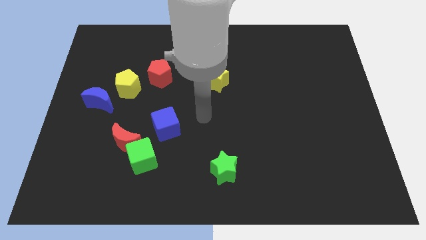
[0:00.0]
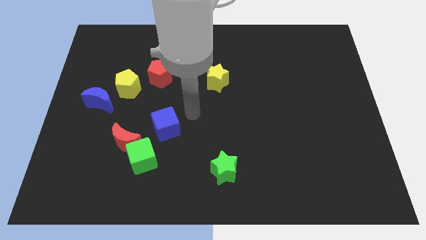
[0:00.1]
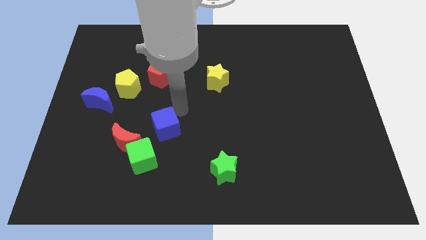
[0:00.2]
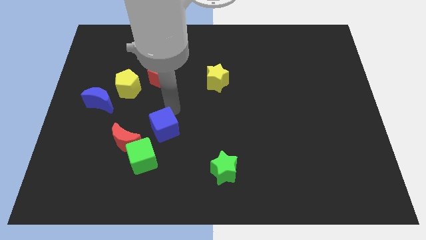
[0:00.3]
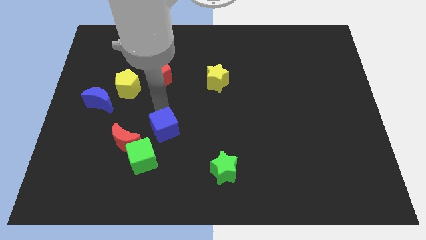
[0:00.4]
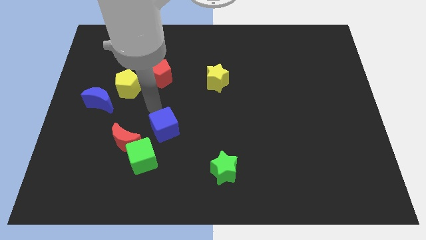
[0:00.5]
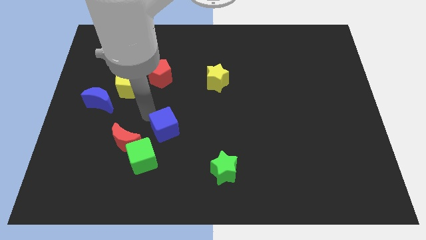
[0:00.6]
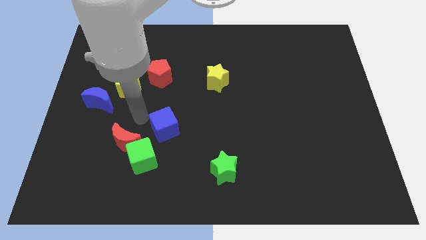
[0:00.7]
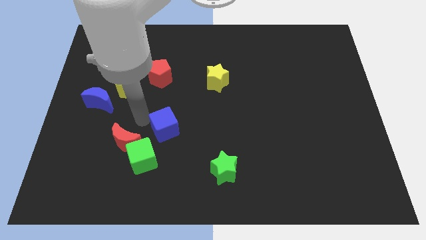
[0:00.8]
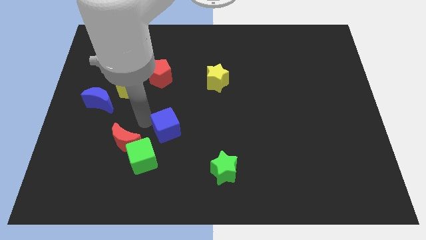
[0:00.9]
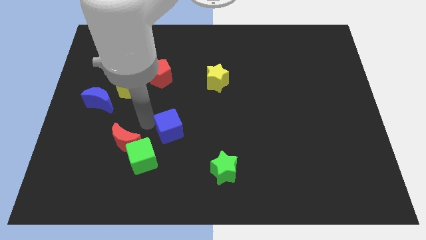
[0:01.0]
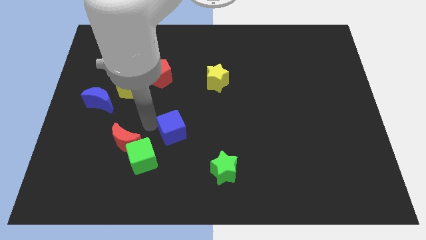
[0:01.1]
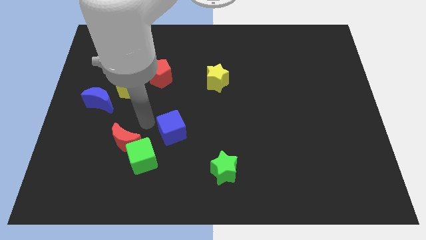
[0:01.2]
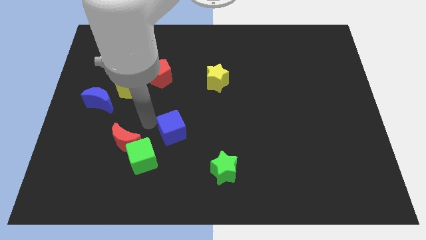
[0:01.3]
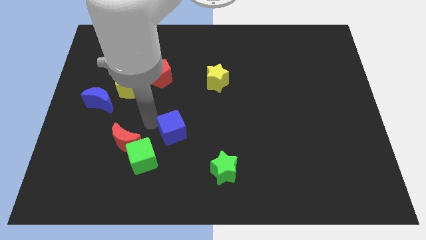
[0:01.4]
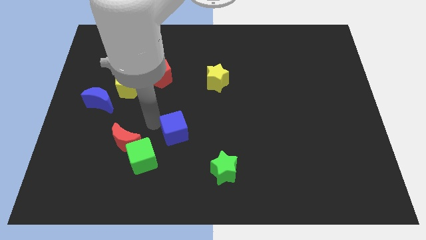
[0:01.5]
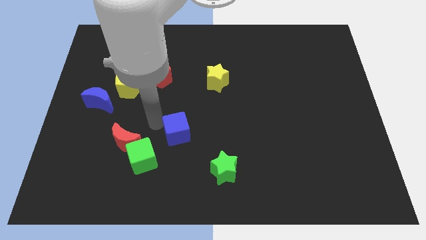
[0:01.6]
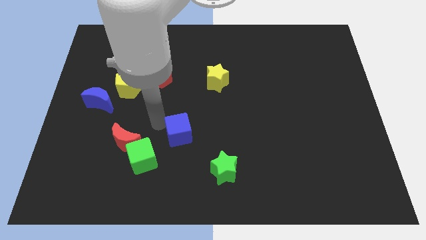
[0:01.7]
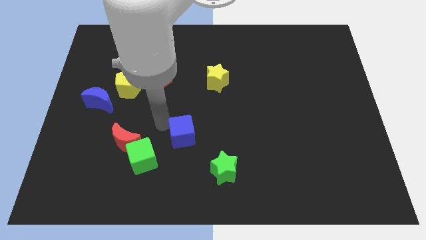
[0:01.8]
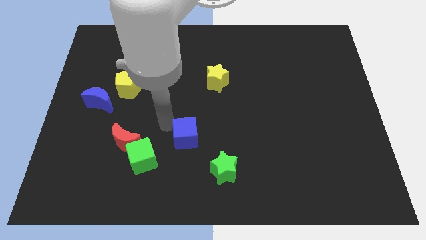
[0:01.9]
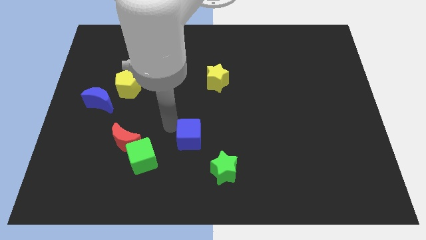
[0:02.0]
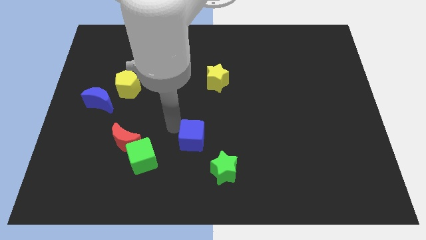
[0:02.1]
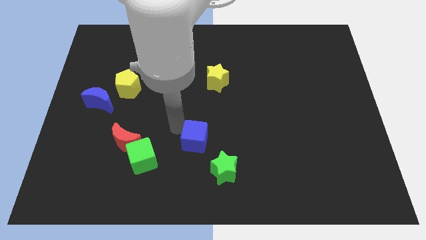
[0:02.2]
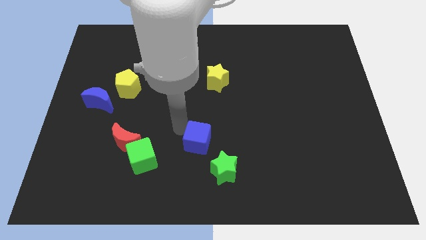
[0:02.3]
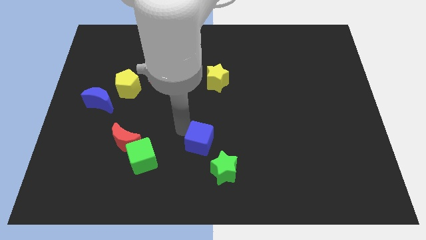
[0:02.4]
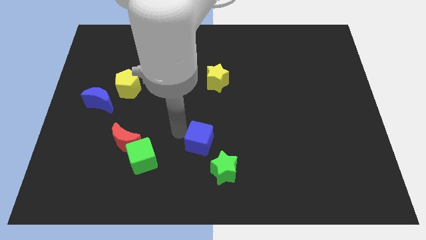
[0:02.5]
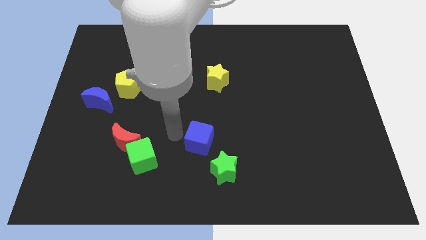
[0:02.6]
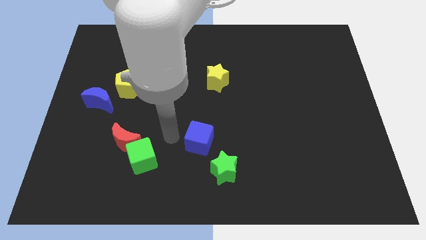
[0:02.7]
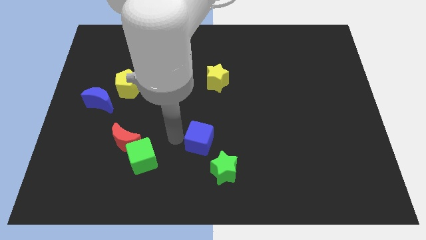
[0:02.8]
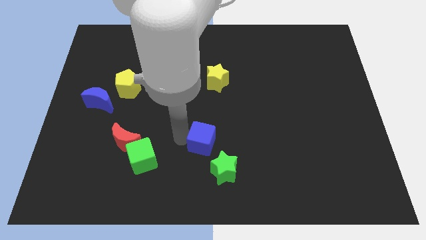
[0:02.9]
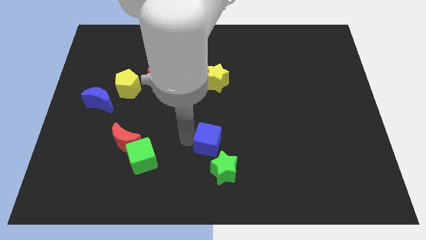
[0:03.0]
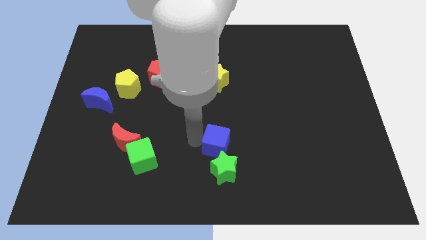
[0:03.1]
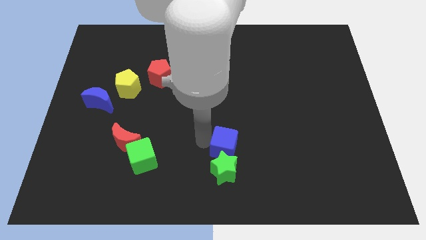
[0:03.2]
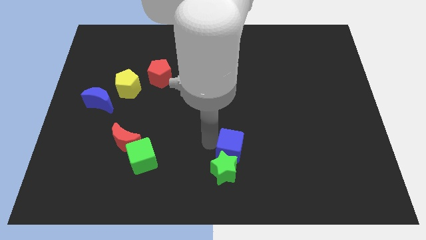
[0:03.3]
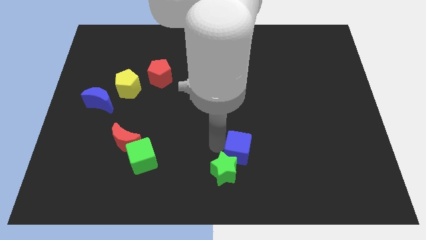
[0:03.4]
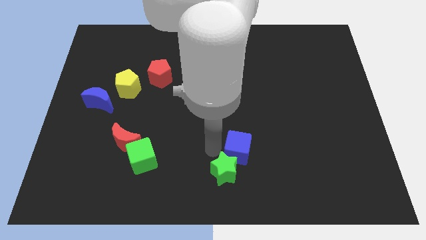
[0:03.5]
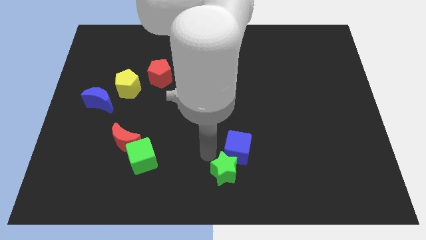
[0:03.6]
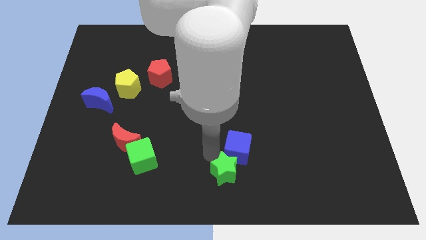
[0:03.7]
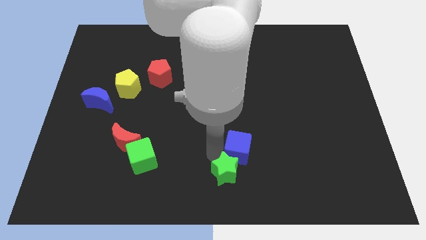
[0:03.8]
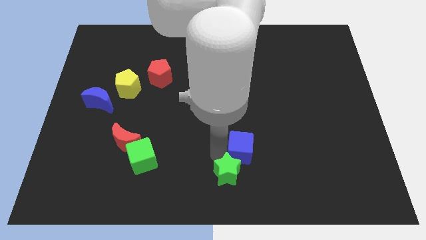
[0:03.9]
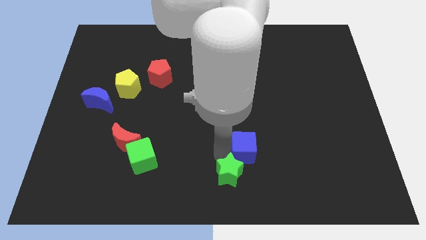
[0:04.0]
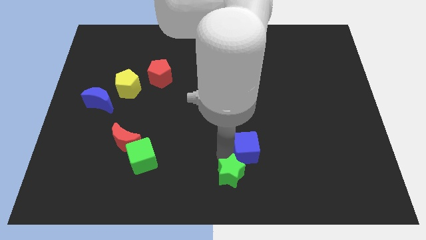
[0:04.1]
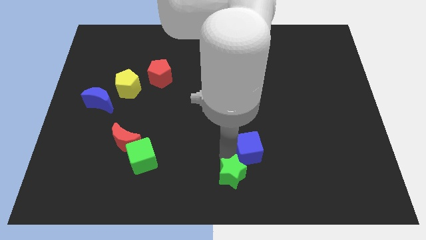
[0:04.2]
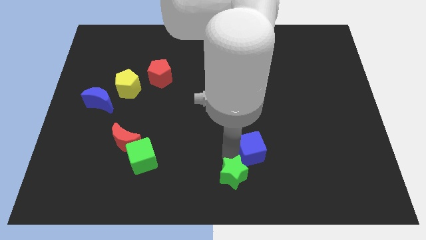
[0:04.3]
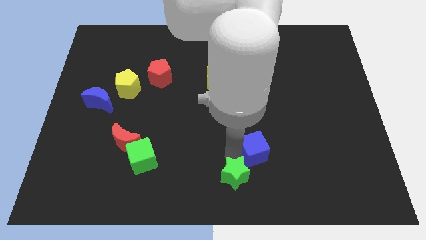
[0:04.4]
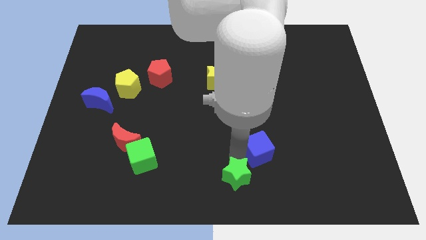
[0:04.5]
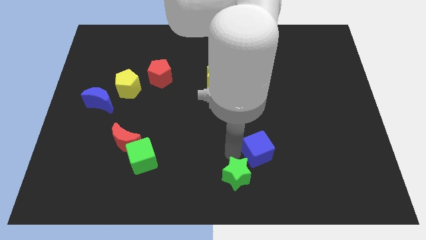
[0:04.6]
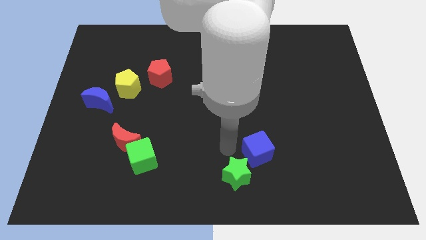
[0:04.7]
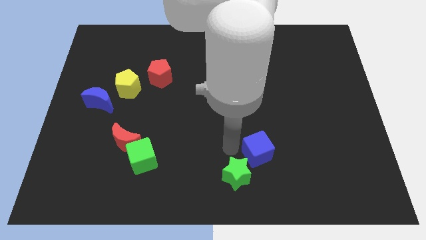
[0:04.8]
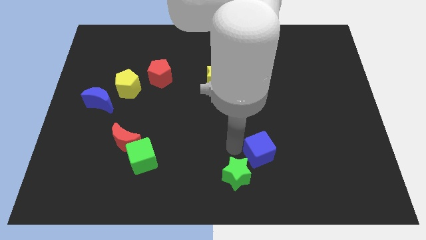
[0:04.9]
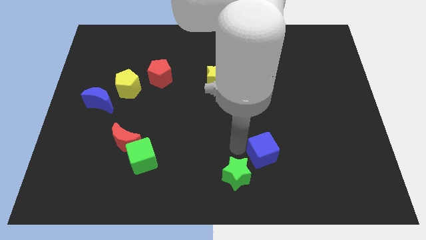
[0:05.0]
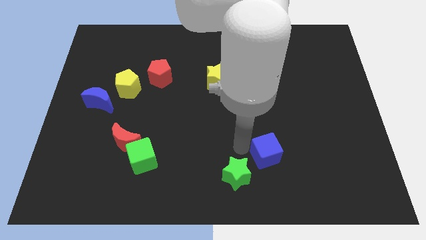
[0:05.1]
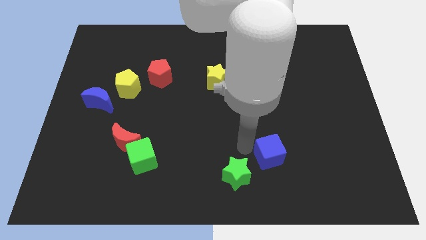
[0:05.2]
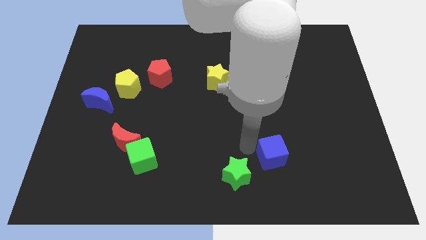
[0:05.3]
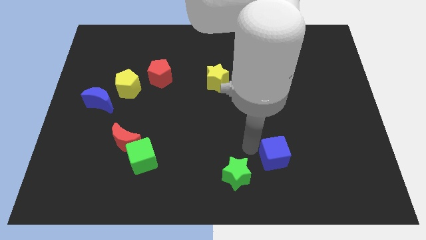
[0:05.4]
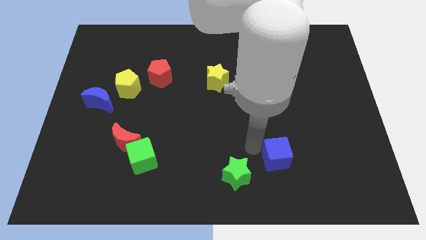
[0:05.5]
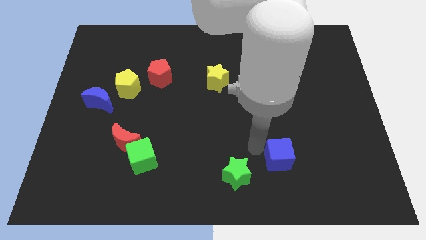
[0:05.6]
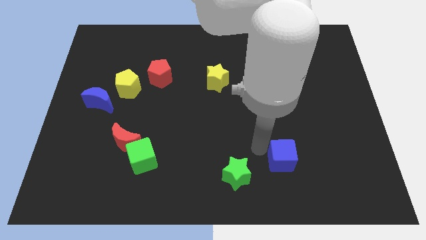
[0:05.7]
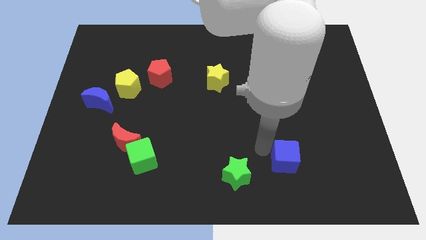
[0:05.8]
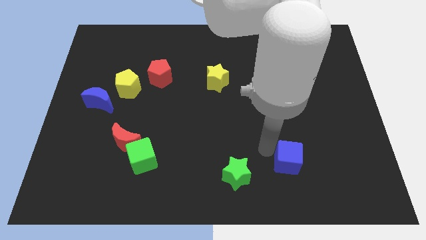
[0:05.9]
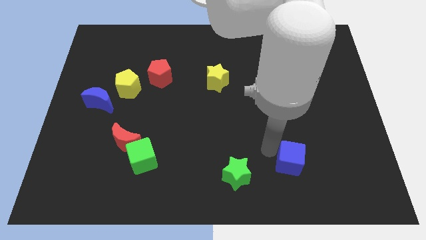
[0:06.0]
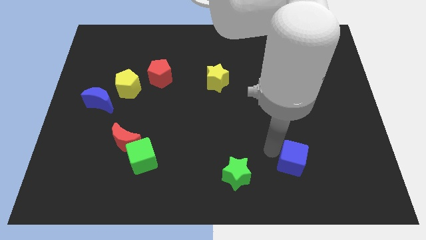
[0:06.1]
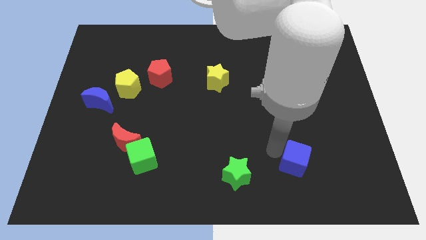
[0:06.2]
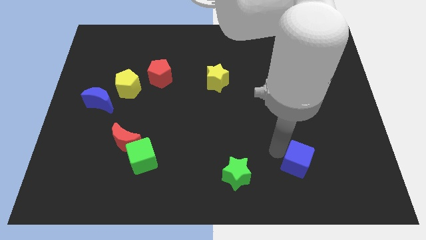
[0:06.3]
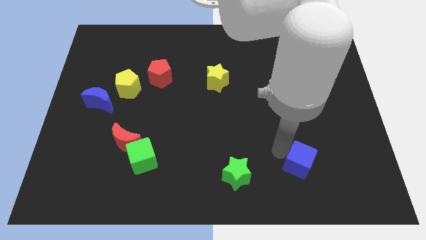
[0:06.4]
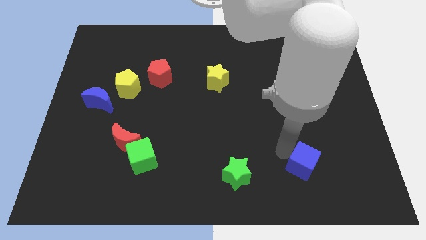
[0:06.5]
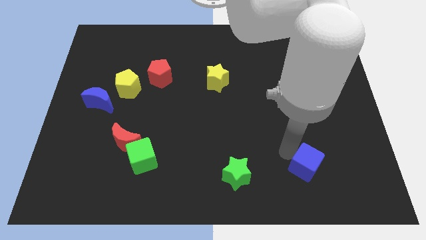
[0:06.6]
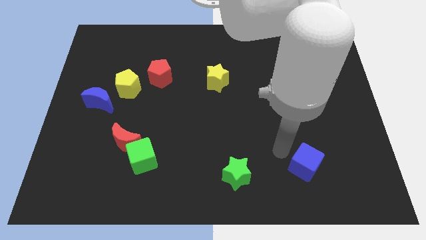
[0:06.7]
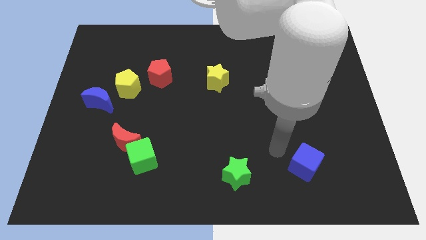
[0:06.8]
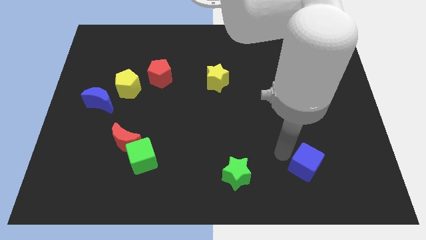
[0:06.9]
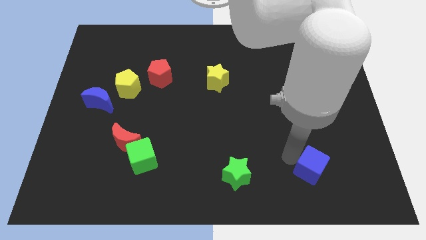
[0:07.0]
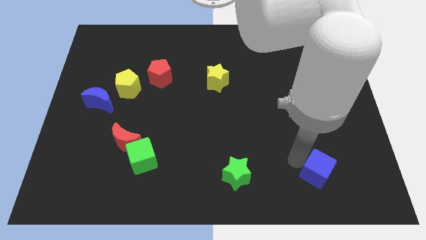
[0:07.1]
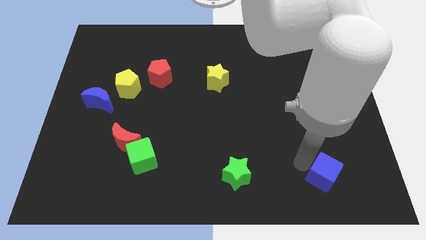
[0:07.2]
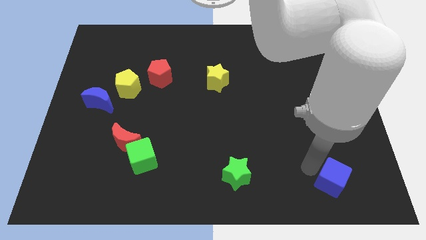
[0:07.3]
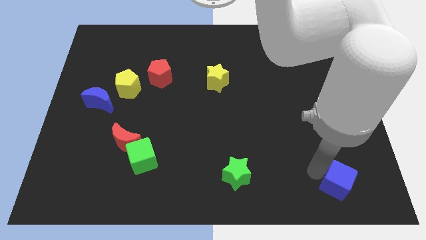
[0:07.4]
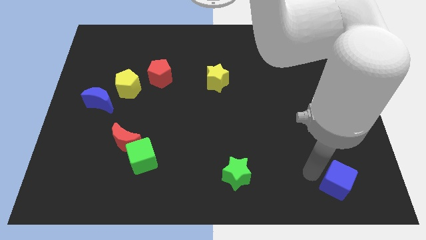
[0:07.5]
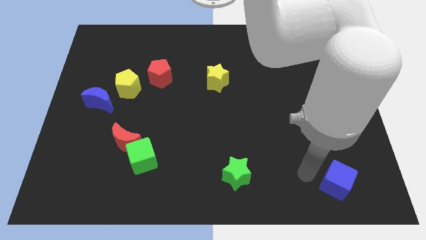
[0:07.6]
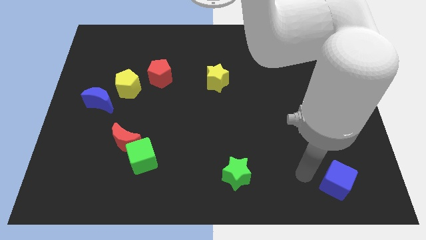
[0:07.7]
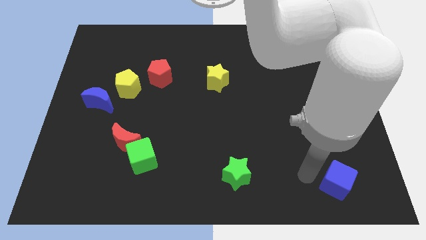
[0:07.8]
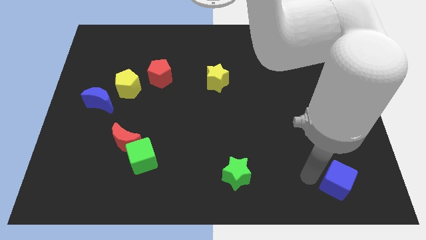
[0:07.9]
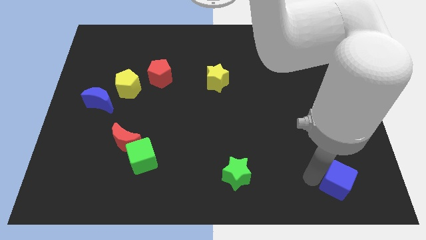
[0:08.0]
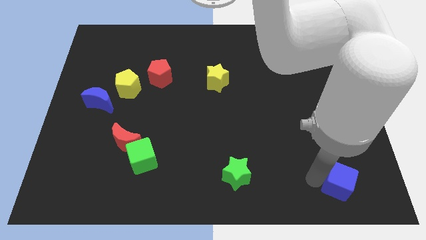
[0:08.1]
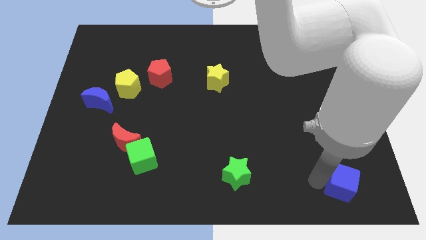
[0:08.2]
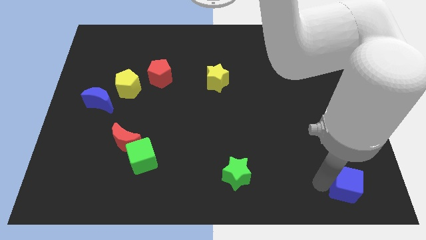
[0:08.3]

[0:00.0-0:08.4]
put the blue cube to the bottom right of the board

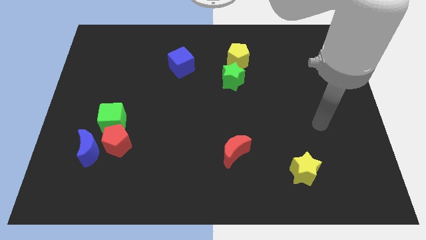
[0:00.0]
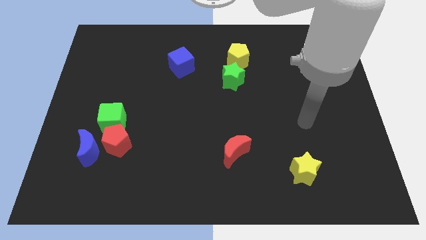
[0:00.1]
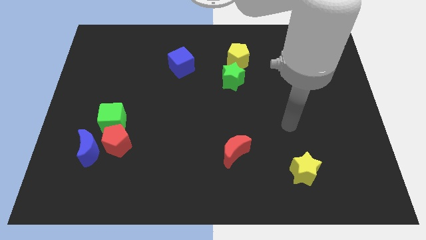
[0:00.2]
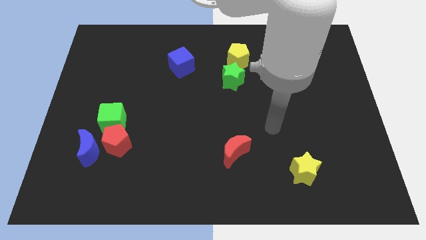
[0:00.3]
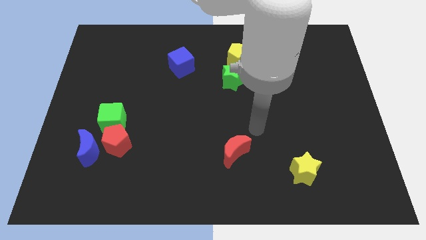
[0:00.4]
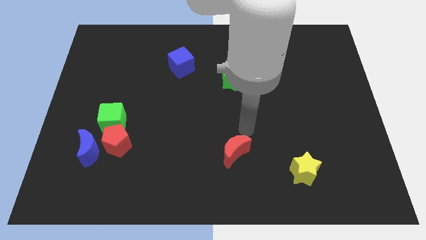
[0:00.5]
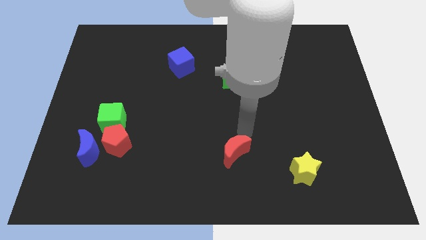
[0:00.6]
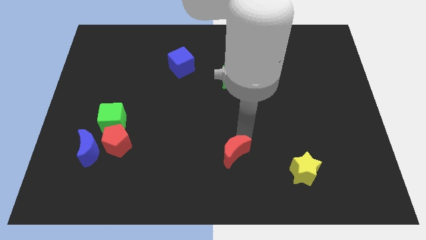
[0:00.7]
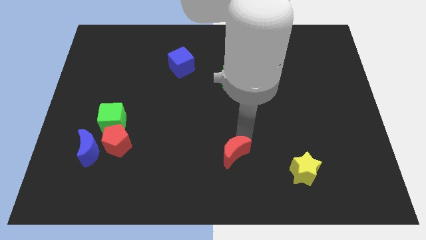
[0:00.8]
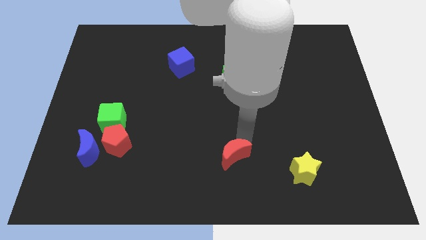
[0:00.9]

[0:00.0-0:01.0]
slide the red moon to the bottom
